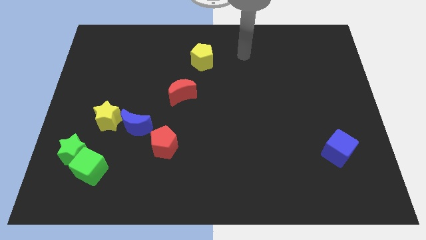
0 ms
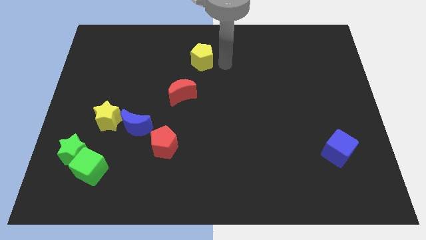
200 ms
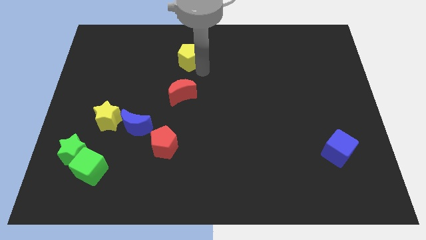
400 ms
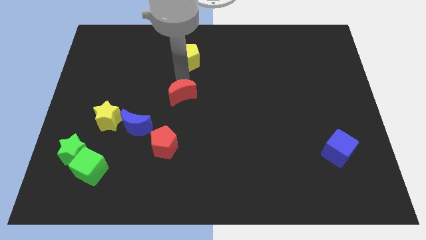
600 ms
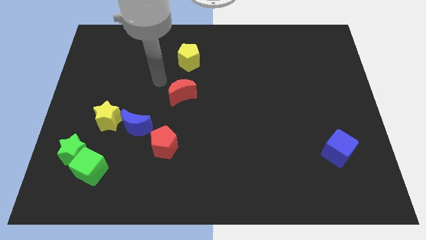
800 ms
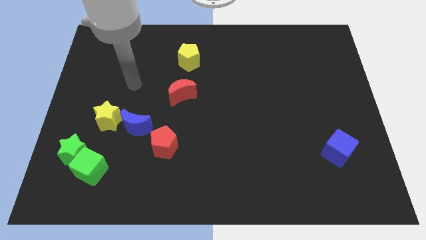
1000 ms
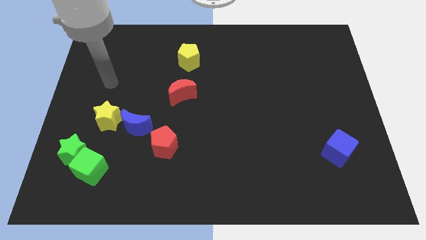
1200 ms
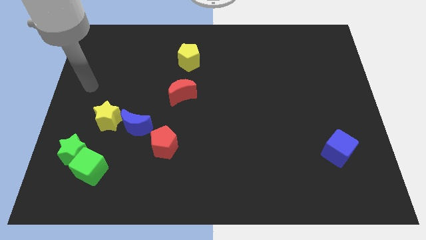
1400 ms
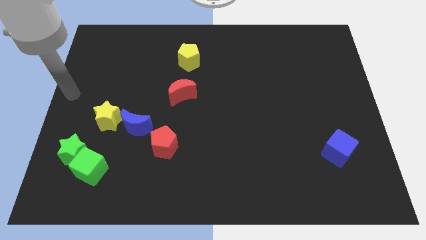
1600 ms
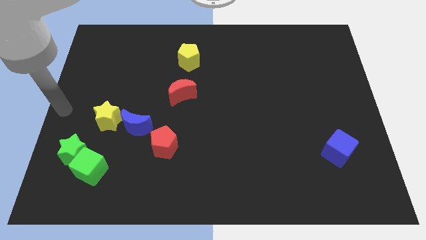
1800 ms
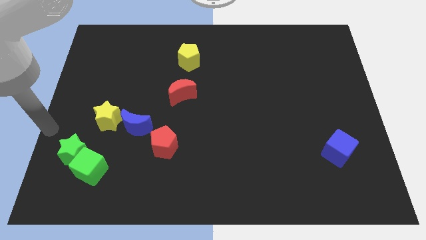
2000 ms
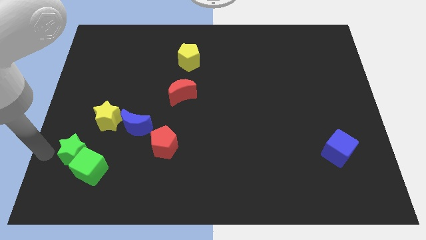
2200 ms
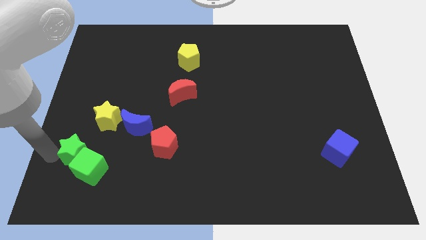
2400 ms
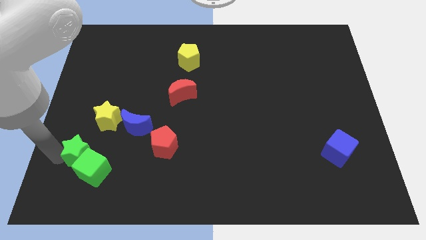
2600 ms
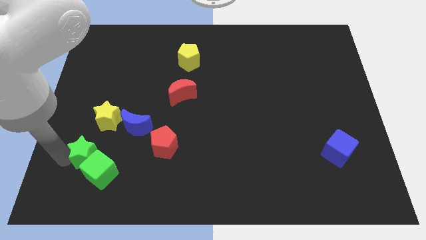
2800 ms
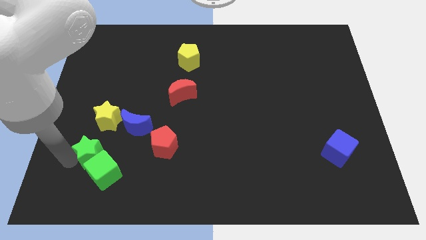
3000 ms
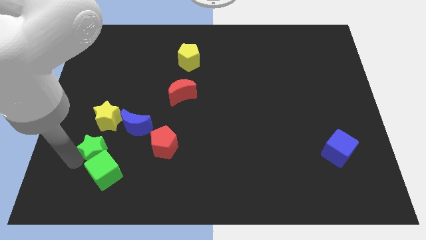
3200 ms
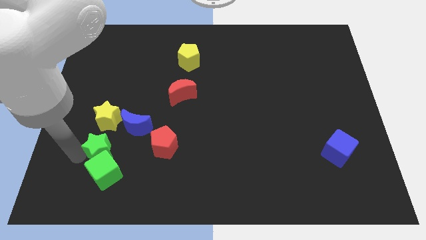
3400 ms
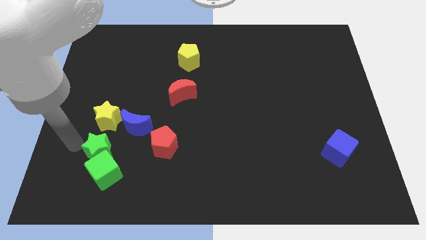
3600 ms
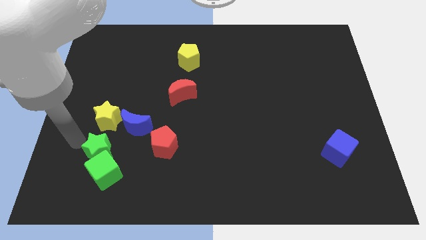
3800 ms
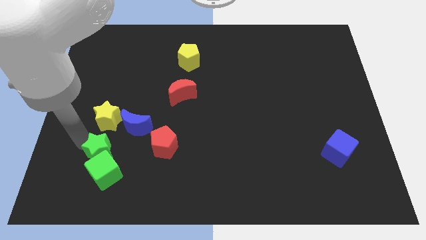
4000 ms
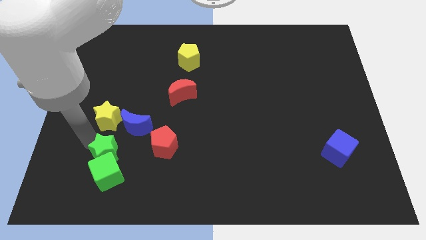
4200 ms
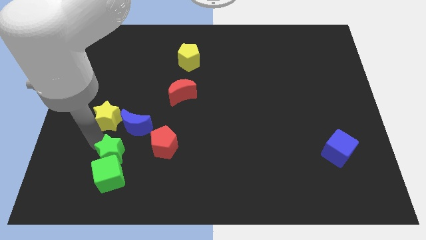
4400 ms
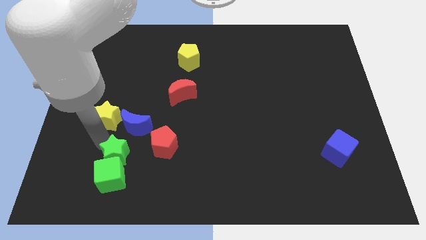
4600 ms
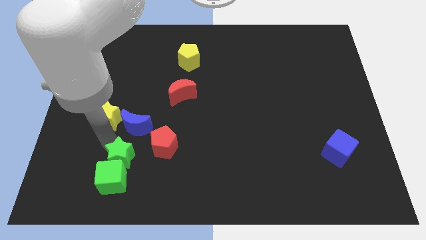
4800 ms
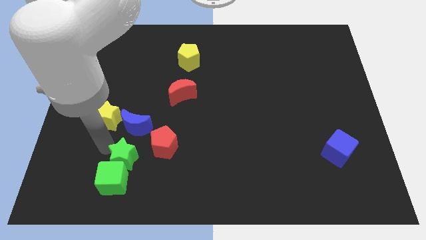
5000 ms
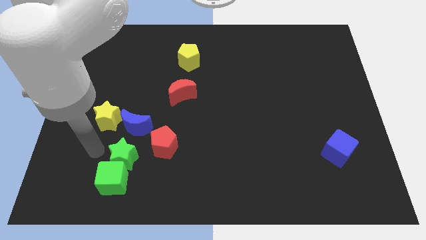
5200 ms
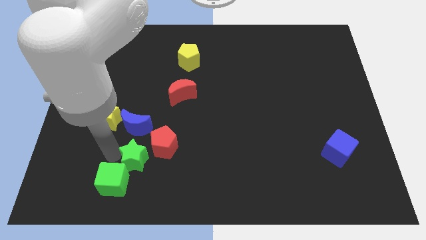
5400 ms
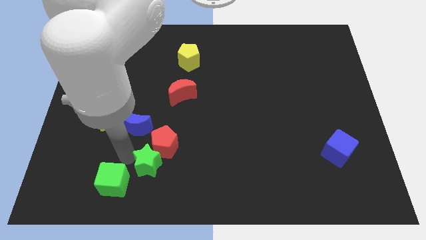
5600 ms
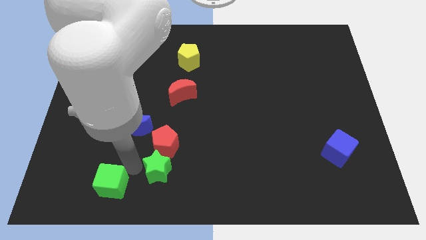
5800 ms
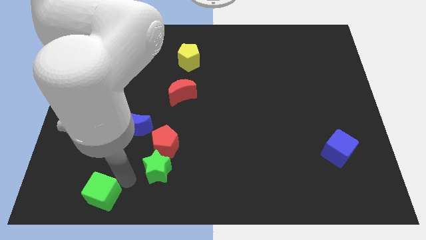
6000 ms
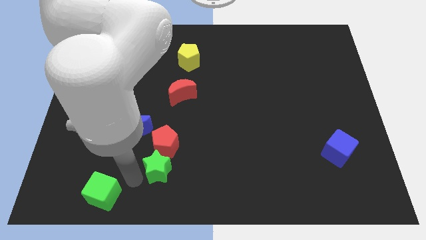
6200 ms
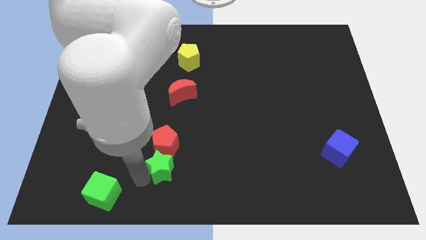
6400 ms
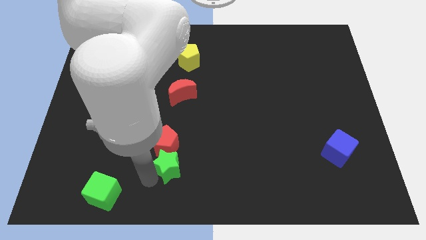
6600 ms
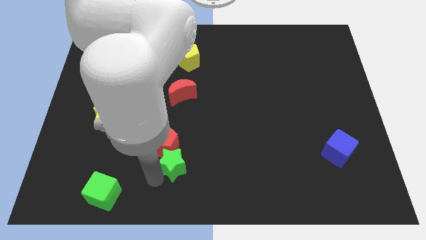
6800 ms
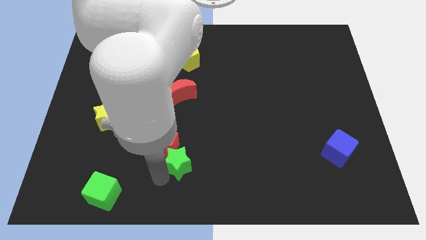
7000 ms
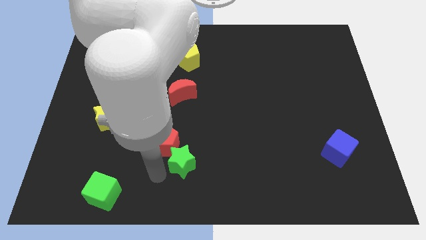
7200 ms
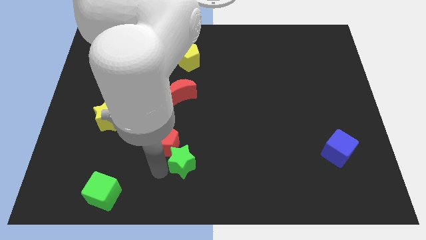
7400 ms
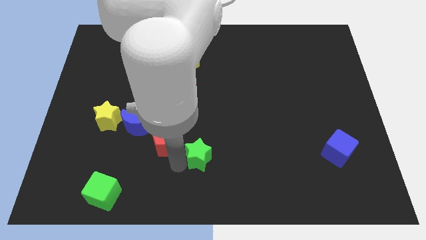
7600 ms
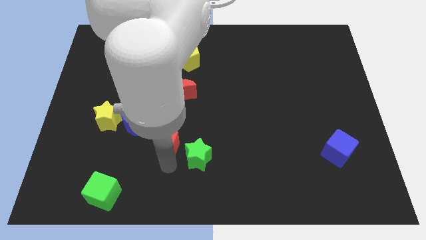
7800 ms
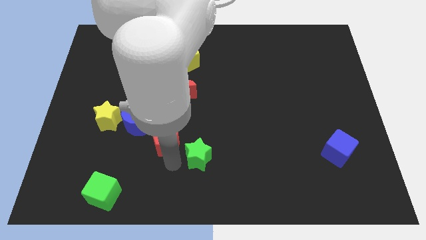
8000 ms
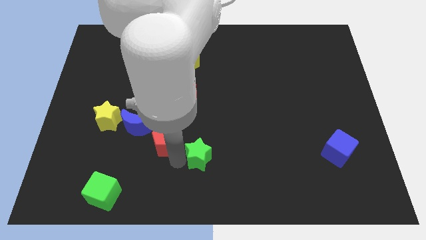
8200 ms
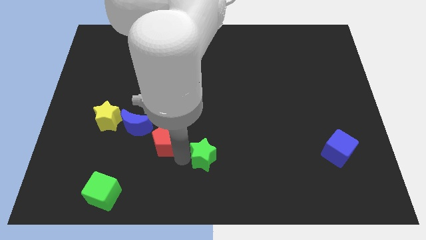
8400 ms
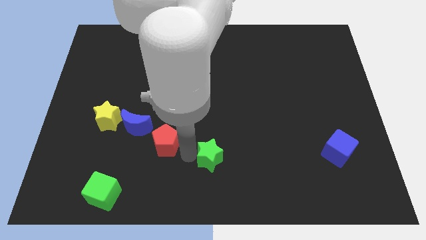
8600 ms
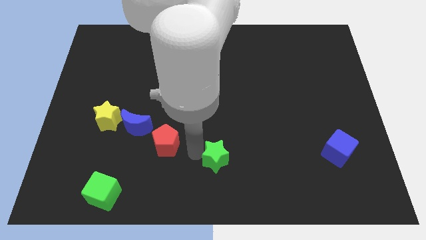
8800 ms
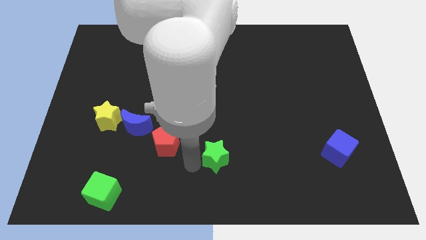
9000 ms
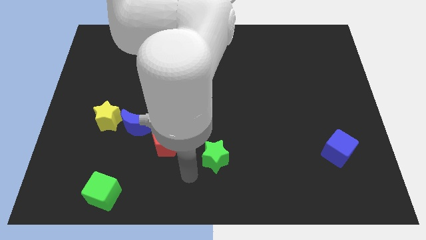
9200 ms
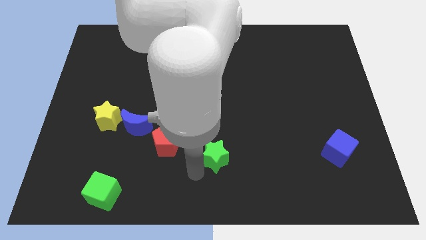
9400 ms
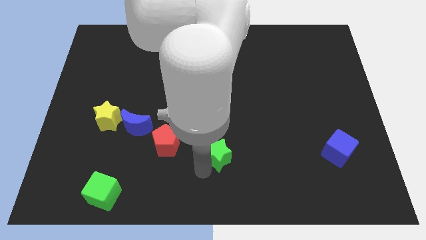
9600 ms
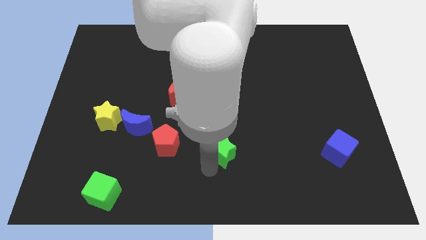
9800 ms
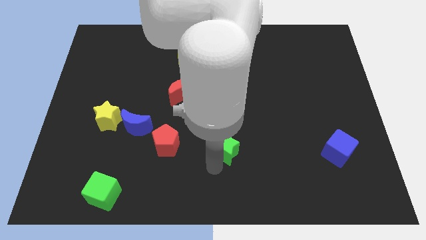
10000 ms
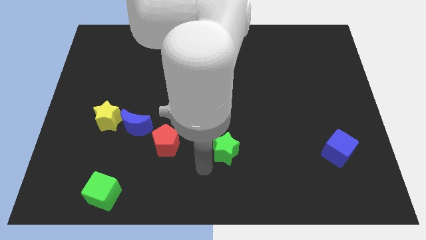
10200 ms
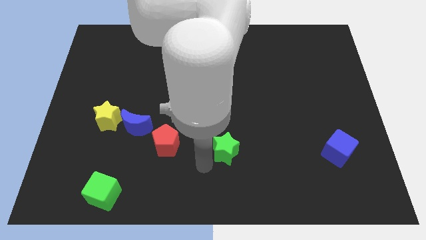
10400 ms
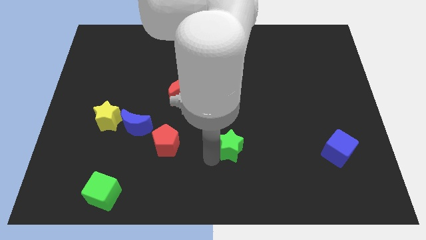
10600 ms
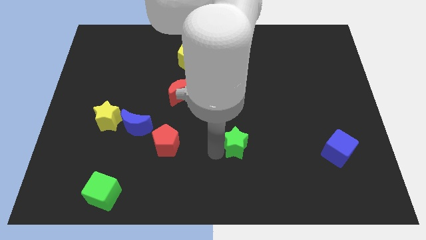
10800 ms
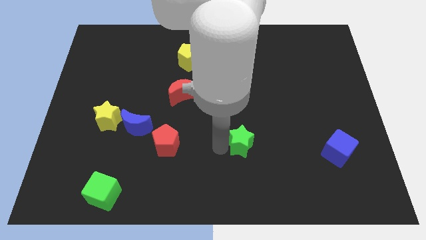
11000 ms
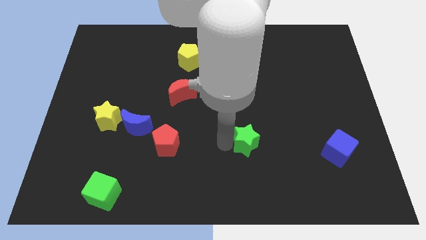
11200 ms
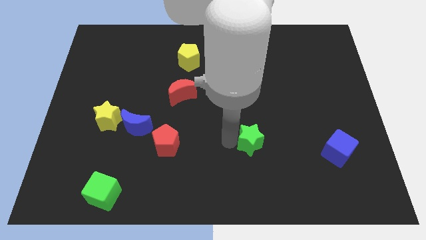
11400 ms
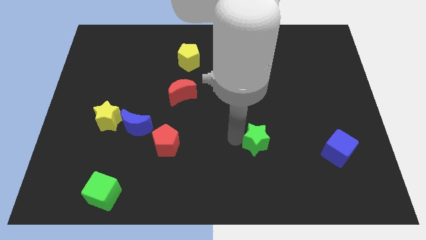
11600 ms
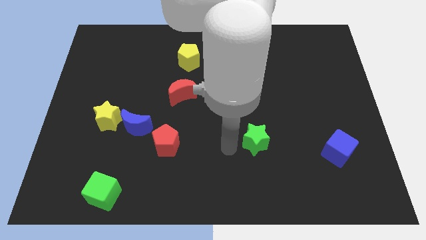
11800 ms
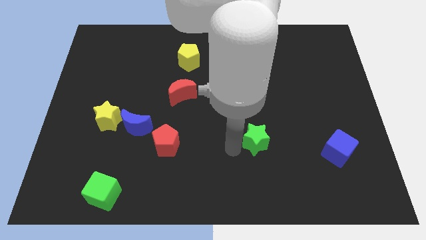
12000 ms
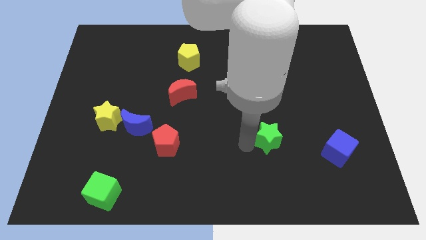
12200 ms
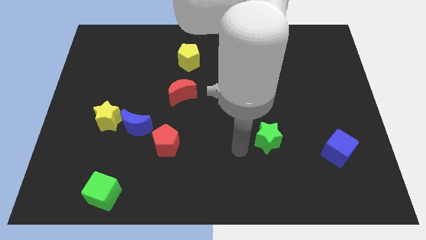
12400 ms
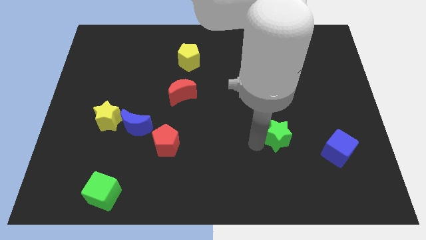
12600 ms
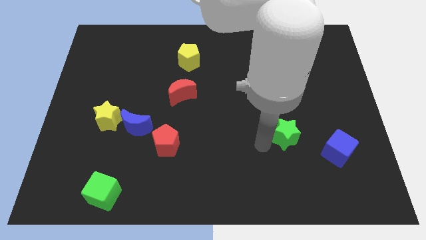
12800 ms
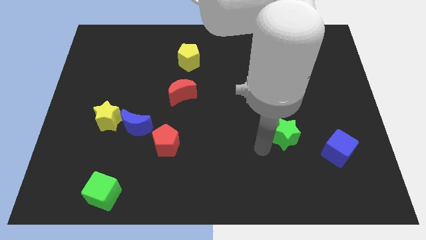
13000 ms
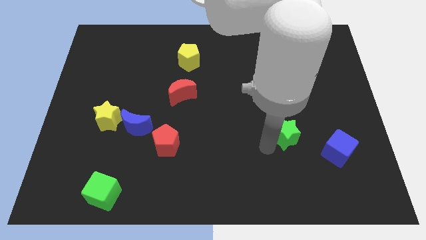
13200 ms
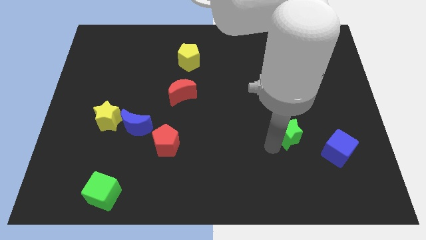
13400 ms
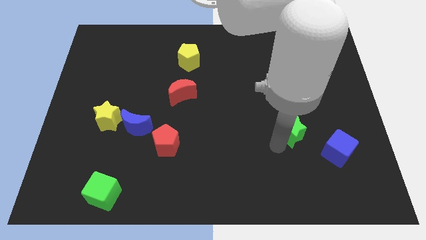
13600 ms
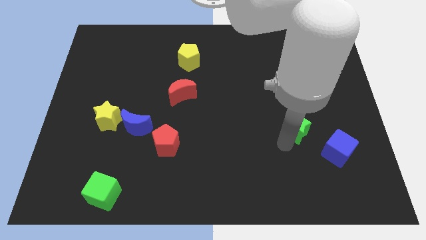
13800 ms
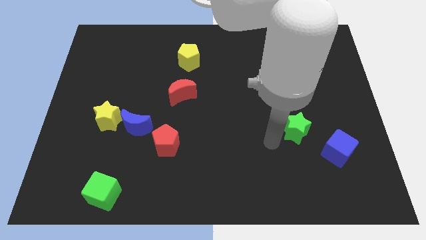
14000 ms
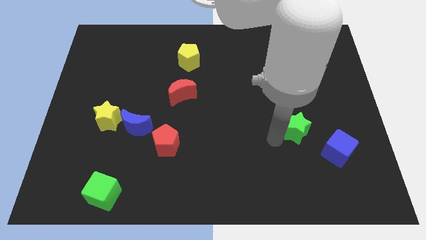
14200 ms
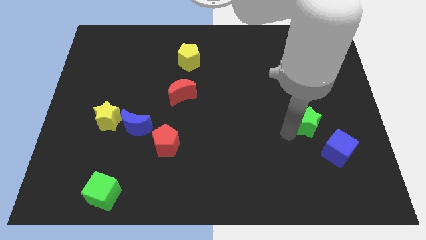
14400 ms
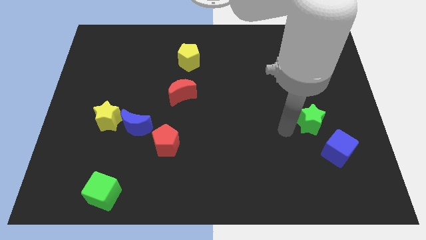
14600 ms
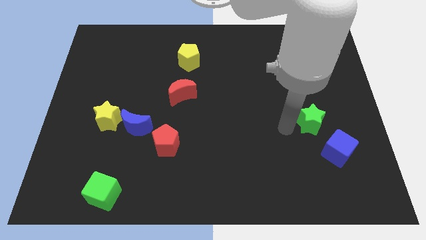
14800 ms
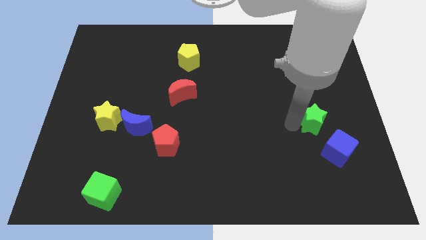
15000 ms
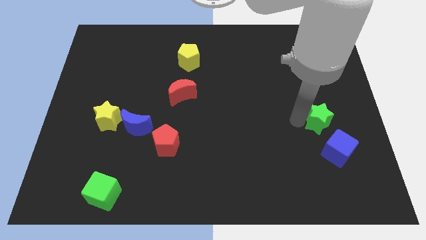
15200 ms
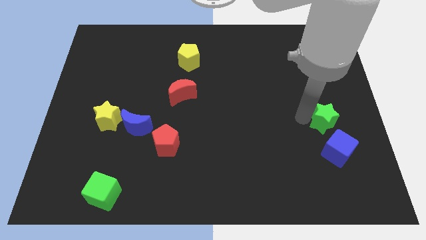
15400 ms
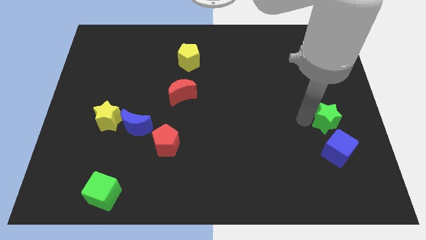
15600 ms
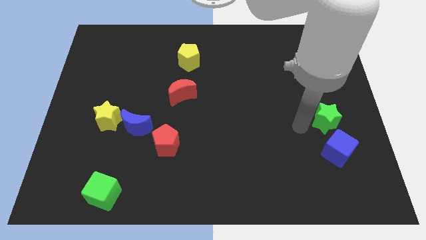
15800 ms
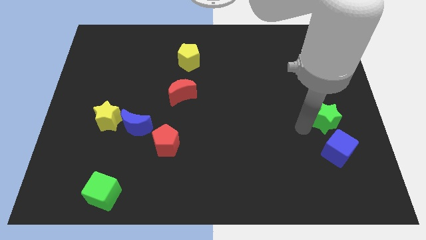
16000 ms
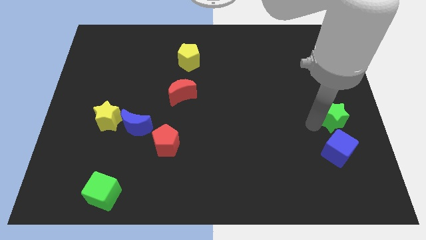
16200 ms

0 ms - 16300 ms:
put the green star to the right side
